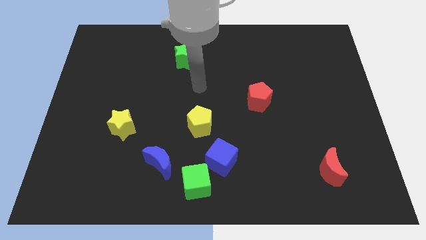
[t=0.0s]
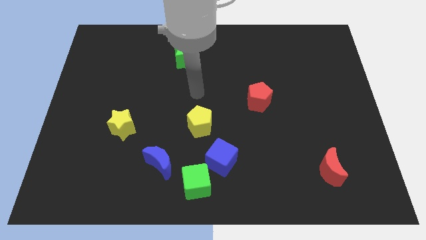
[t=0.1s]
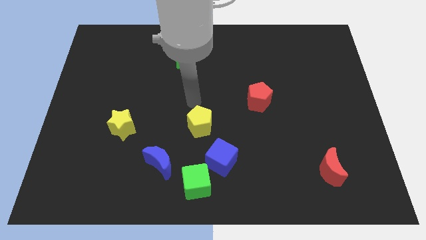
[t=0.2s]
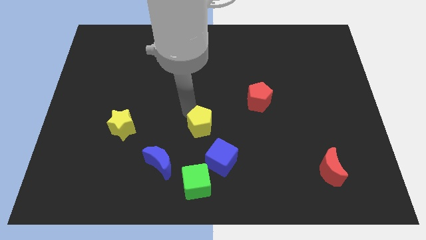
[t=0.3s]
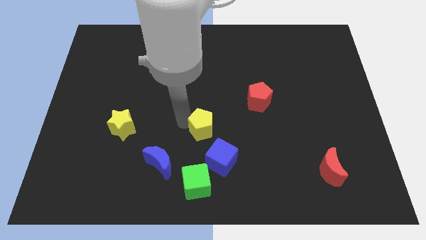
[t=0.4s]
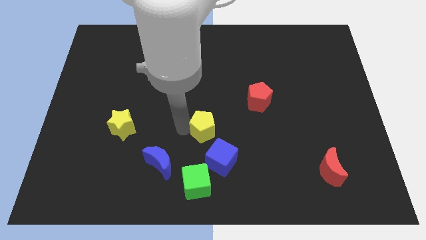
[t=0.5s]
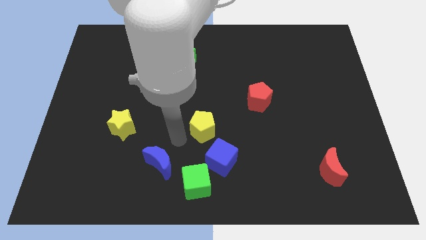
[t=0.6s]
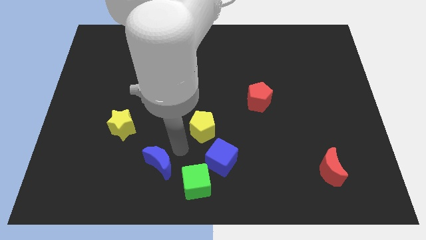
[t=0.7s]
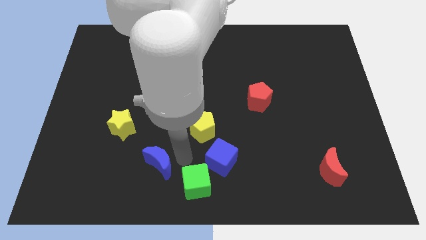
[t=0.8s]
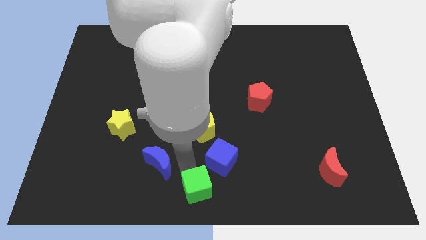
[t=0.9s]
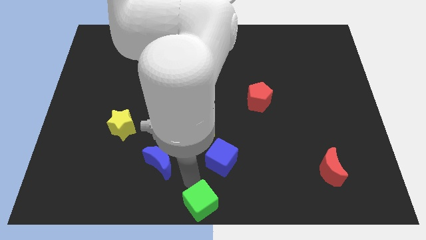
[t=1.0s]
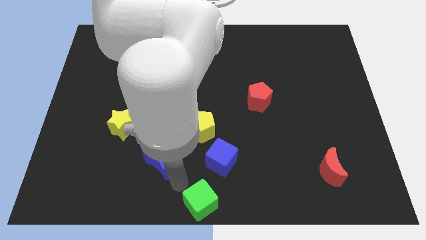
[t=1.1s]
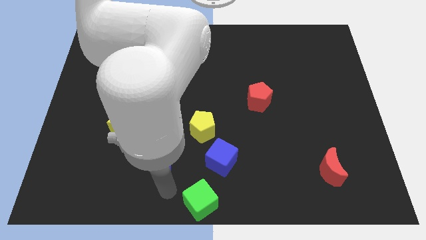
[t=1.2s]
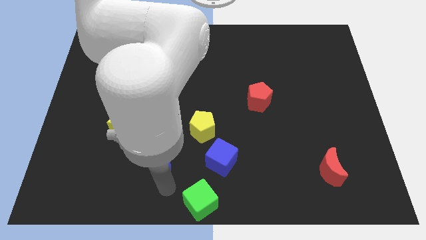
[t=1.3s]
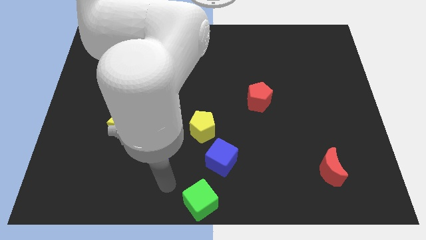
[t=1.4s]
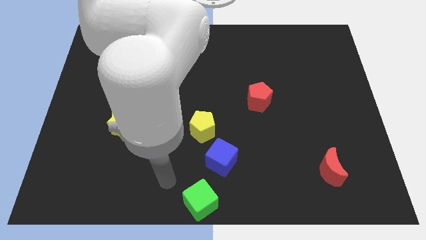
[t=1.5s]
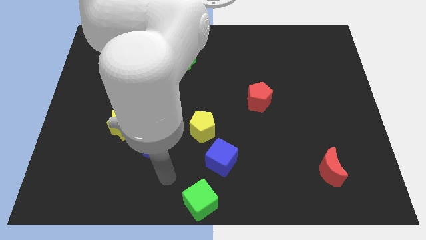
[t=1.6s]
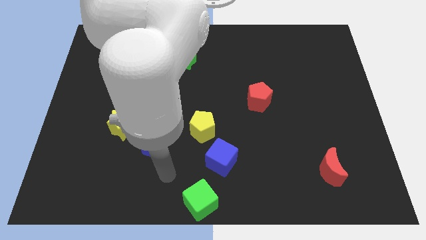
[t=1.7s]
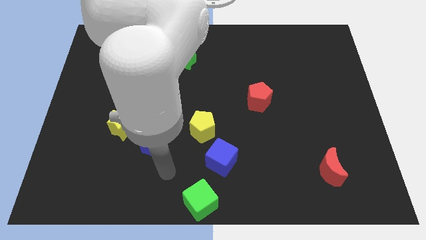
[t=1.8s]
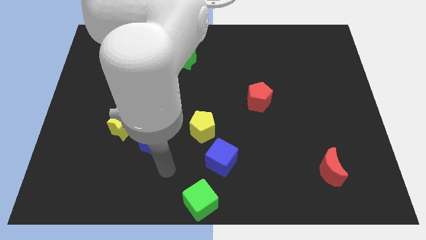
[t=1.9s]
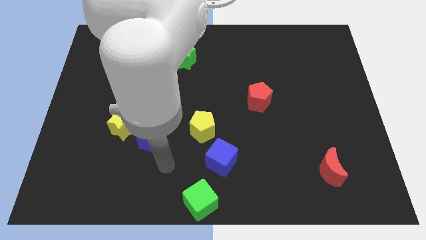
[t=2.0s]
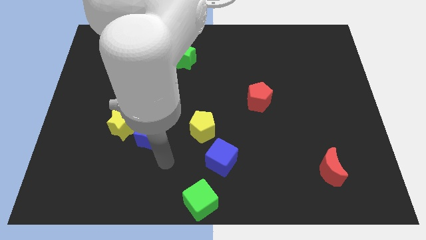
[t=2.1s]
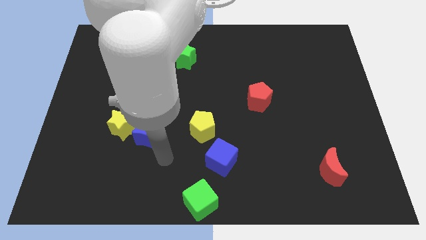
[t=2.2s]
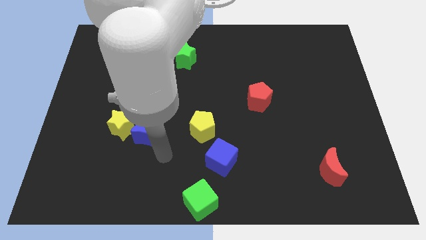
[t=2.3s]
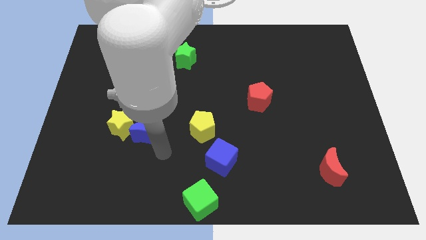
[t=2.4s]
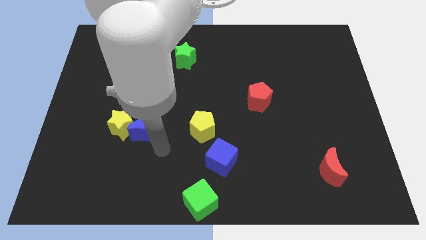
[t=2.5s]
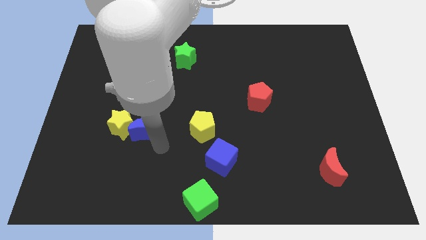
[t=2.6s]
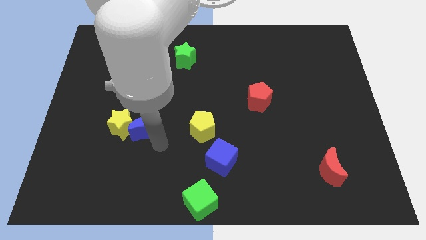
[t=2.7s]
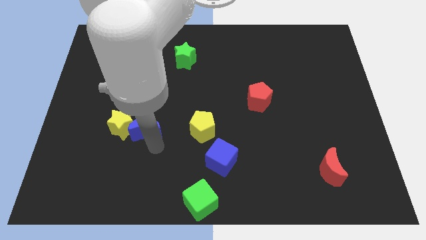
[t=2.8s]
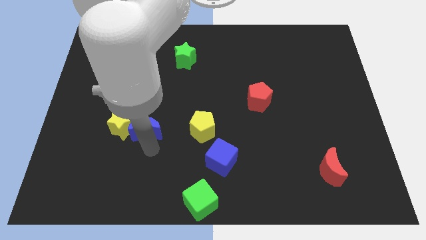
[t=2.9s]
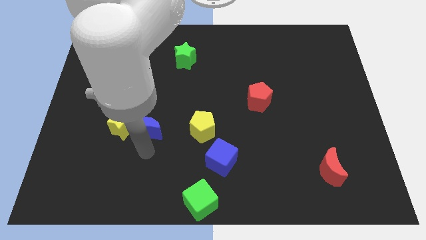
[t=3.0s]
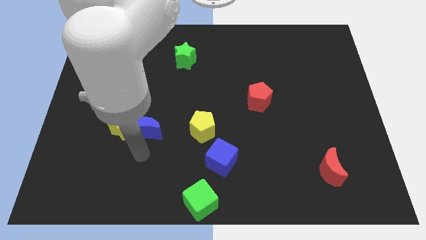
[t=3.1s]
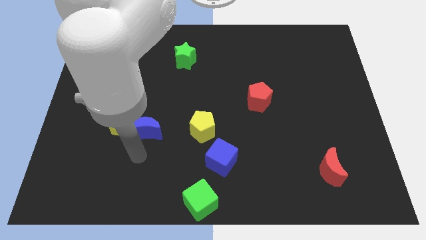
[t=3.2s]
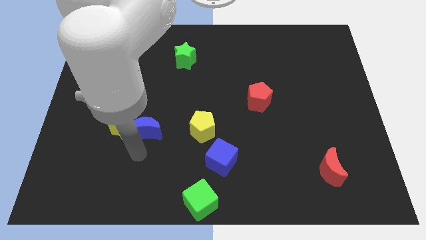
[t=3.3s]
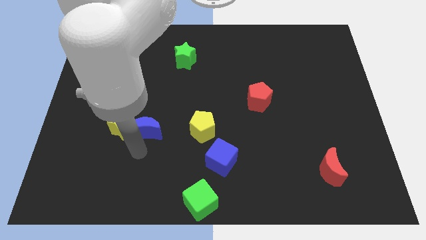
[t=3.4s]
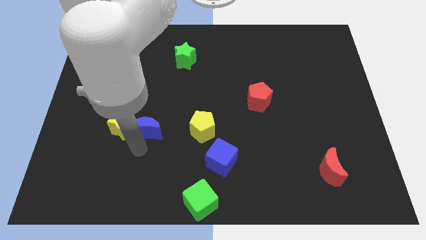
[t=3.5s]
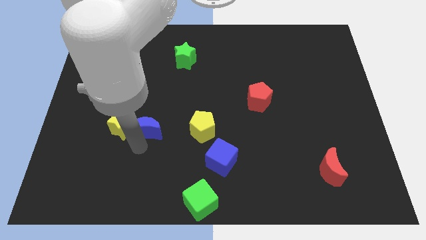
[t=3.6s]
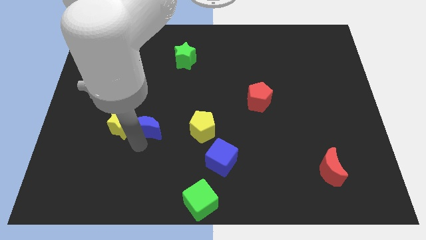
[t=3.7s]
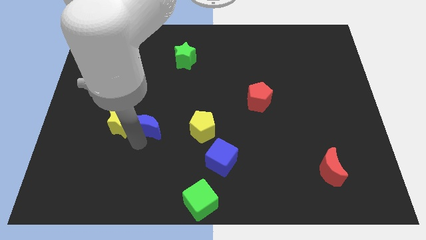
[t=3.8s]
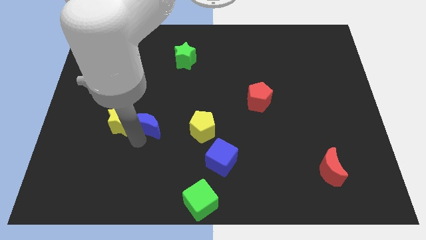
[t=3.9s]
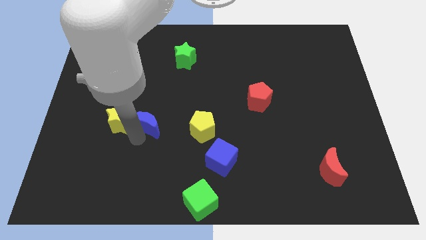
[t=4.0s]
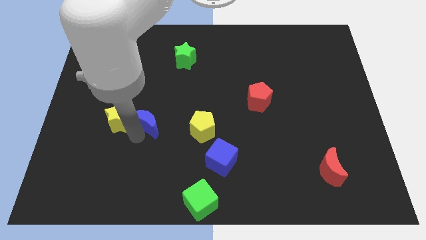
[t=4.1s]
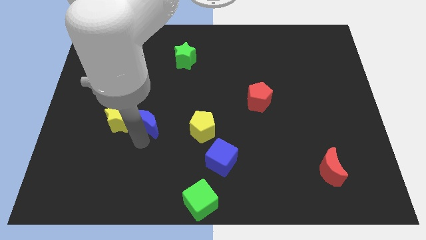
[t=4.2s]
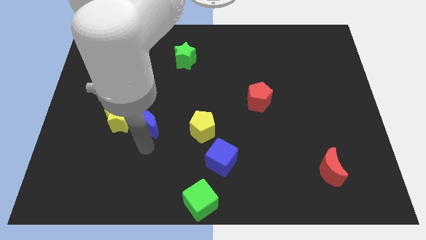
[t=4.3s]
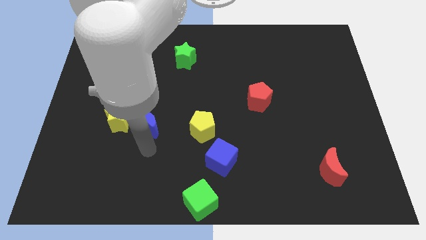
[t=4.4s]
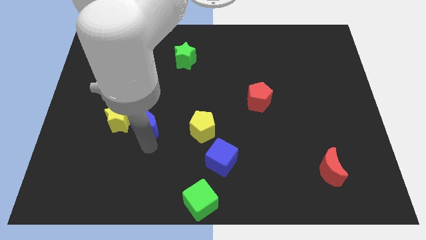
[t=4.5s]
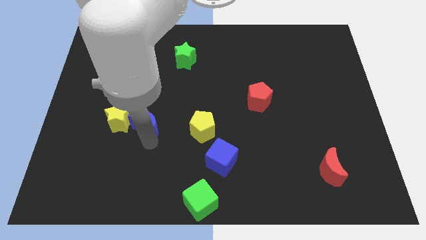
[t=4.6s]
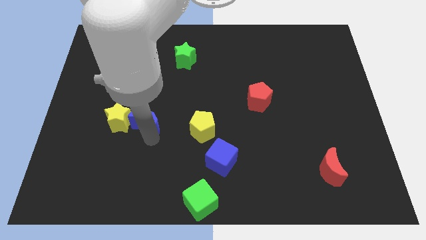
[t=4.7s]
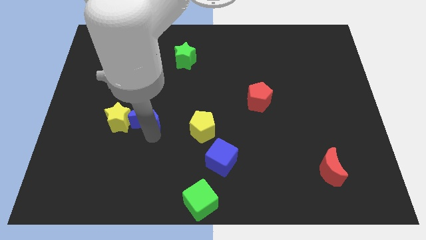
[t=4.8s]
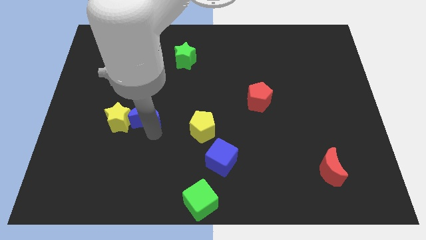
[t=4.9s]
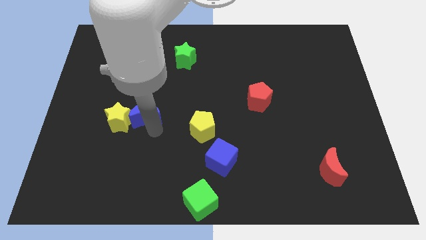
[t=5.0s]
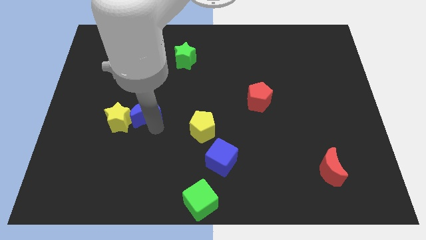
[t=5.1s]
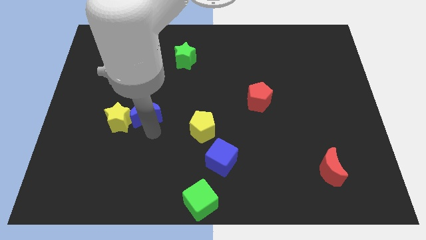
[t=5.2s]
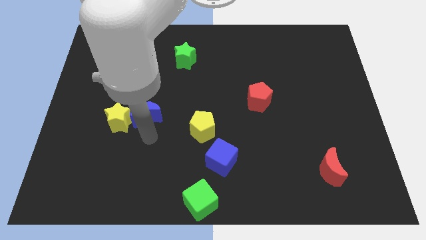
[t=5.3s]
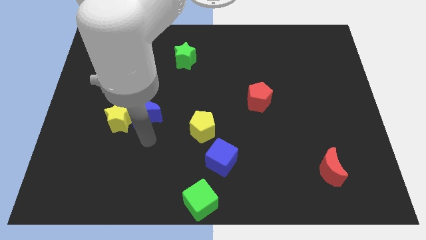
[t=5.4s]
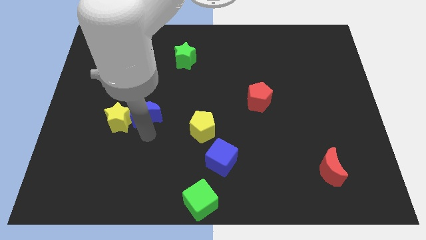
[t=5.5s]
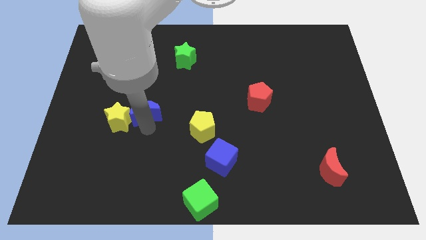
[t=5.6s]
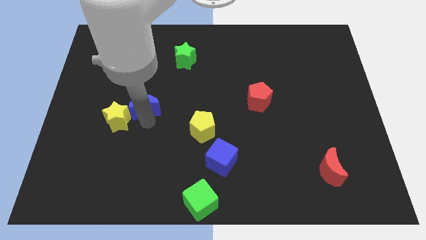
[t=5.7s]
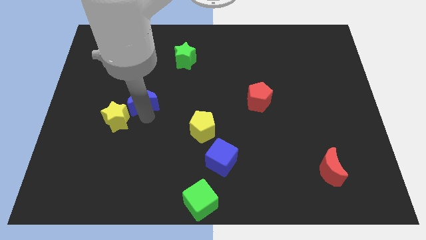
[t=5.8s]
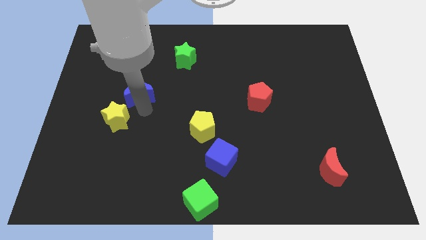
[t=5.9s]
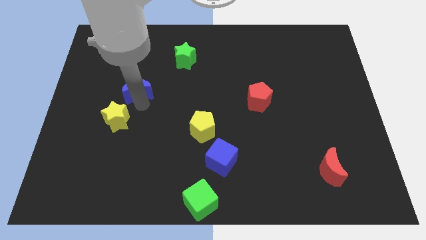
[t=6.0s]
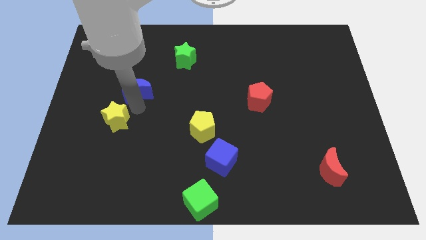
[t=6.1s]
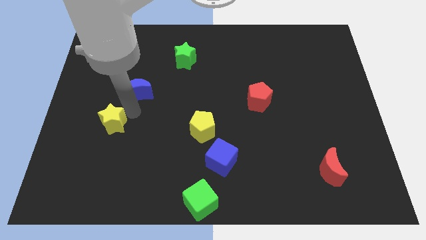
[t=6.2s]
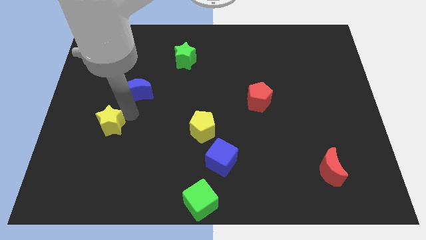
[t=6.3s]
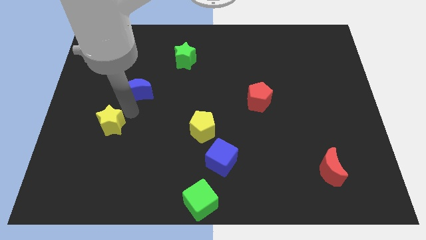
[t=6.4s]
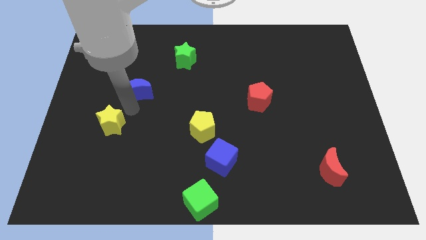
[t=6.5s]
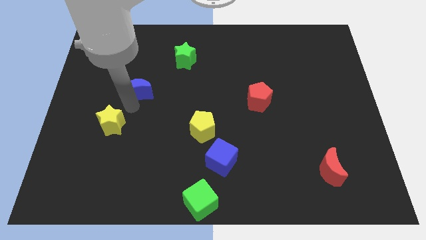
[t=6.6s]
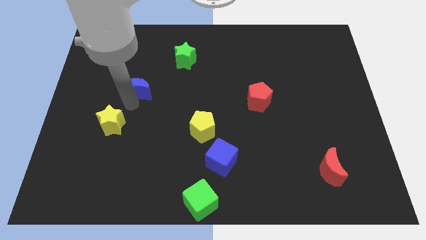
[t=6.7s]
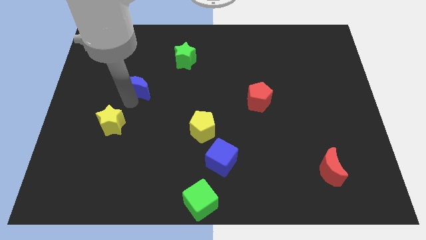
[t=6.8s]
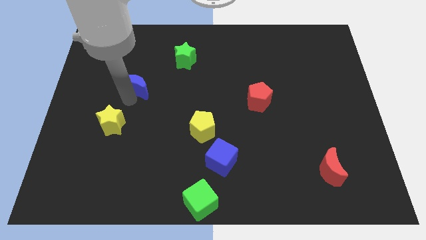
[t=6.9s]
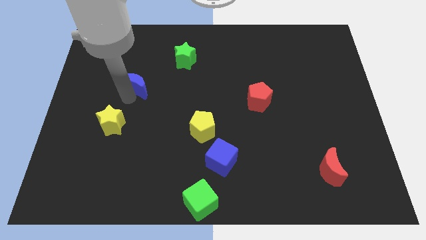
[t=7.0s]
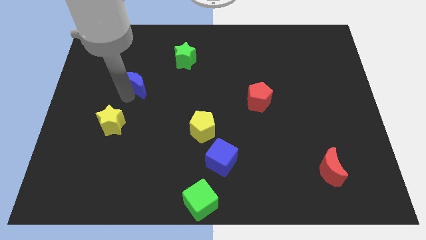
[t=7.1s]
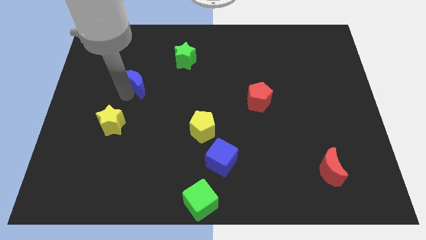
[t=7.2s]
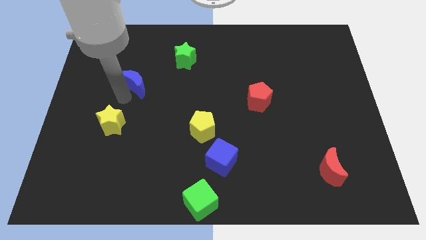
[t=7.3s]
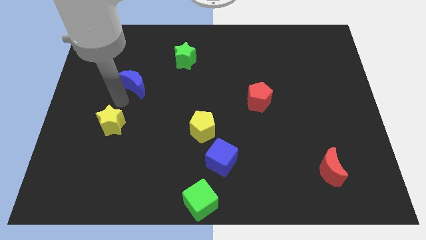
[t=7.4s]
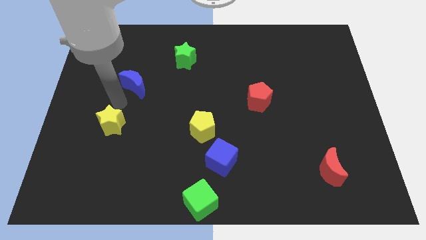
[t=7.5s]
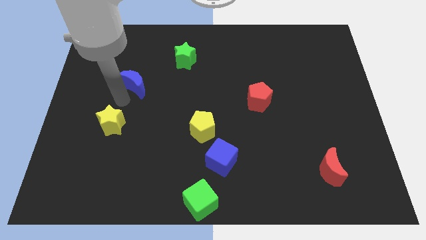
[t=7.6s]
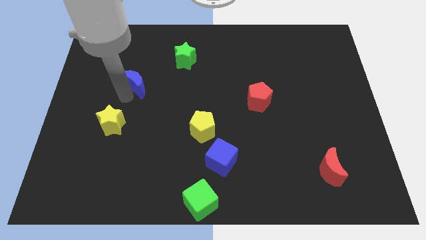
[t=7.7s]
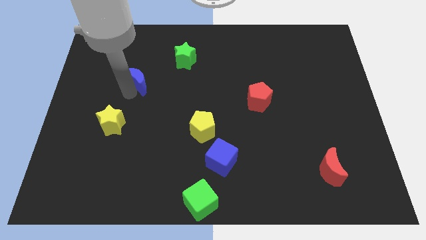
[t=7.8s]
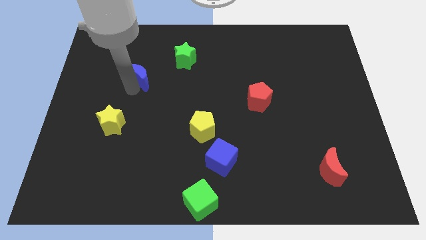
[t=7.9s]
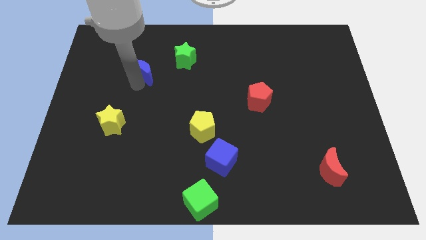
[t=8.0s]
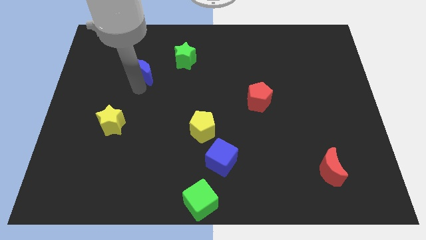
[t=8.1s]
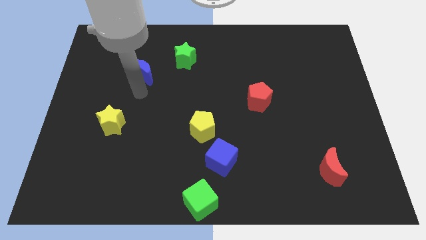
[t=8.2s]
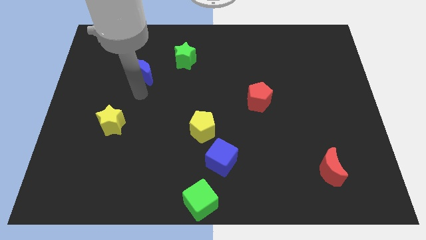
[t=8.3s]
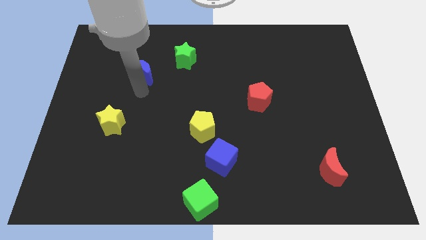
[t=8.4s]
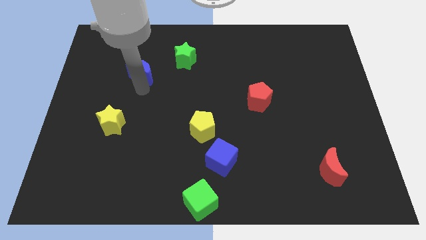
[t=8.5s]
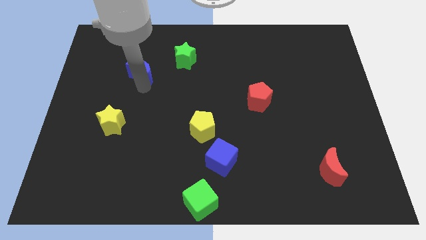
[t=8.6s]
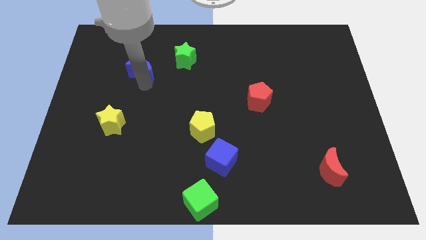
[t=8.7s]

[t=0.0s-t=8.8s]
push the blue moon to the left of the green star
